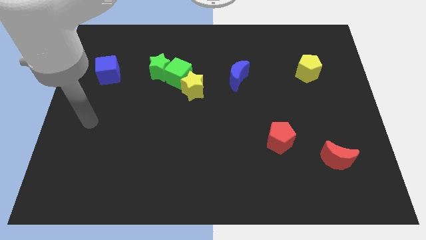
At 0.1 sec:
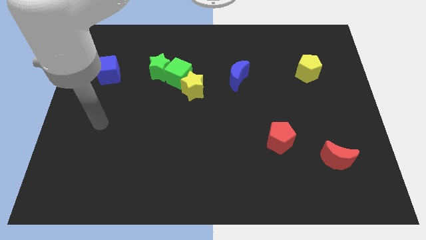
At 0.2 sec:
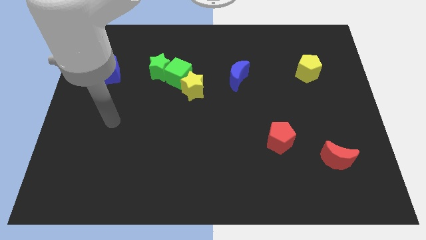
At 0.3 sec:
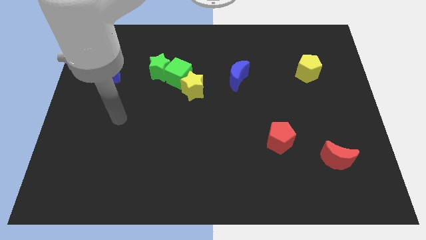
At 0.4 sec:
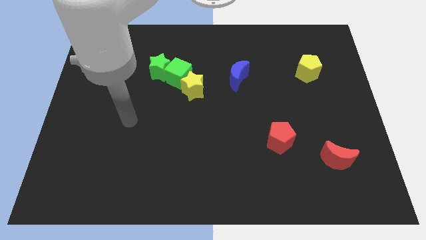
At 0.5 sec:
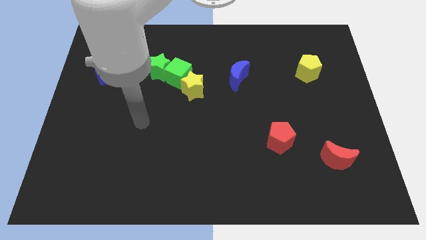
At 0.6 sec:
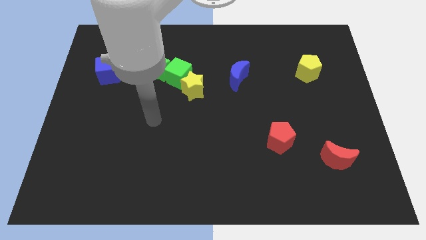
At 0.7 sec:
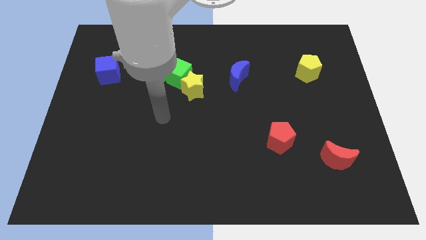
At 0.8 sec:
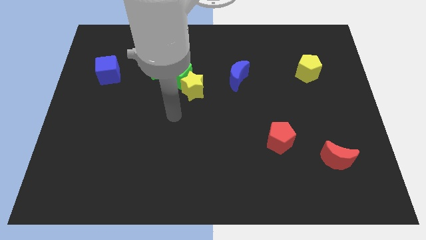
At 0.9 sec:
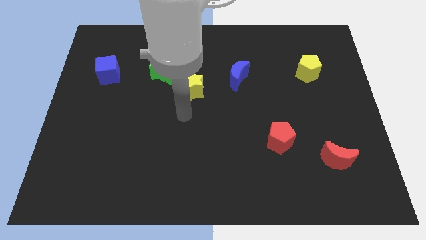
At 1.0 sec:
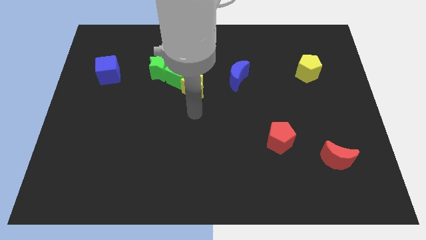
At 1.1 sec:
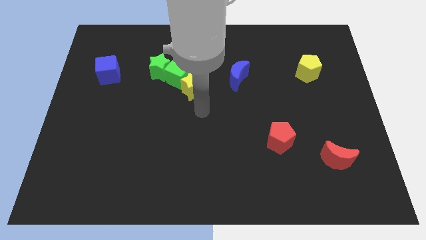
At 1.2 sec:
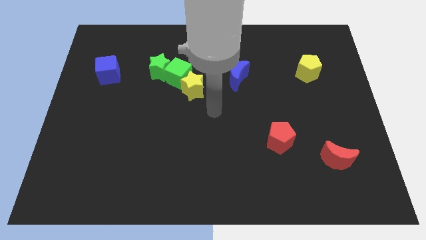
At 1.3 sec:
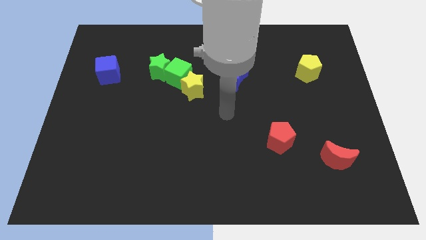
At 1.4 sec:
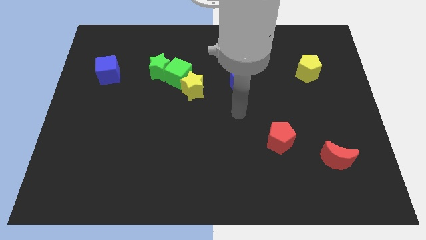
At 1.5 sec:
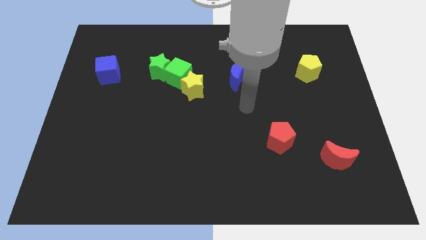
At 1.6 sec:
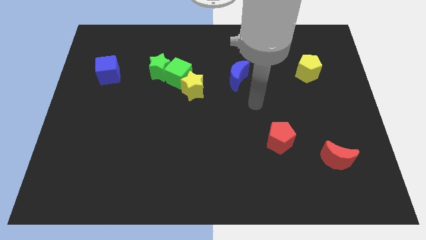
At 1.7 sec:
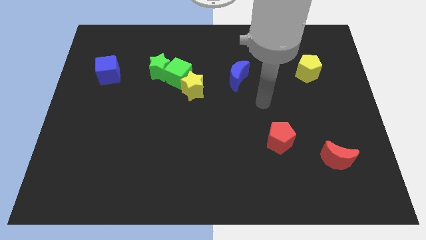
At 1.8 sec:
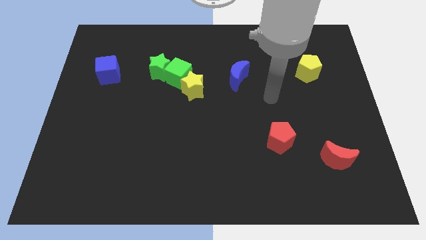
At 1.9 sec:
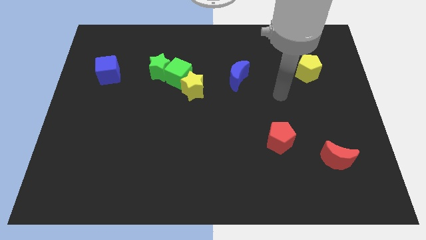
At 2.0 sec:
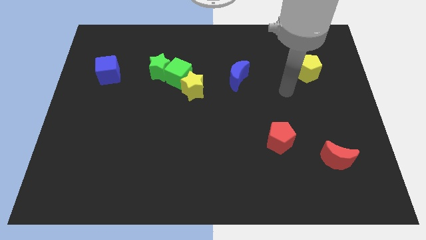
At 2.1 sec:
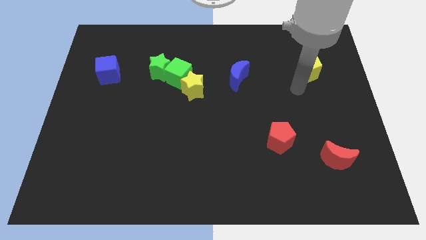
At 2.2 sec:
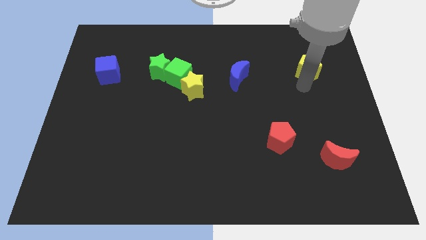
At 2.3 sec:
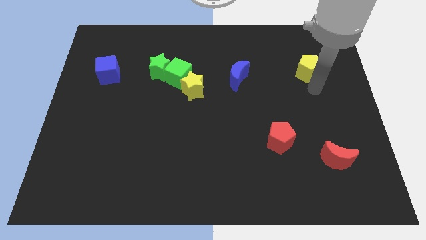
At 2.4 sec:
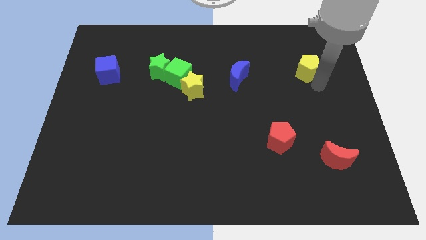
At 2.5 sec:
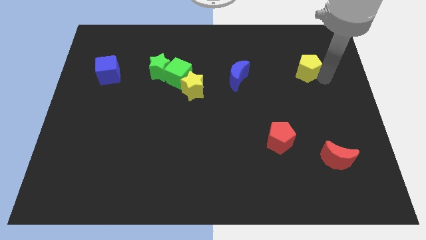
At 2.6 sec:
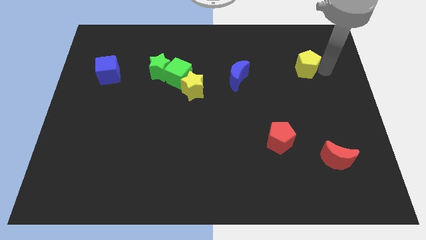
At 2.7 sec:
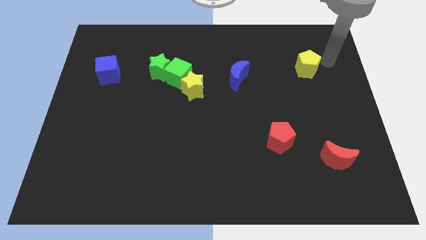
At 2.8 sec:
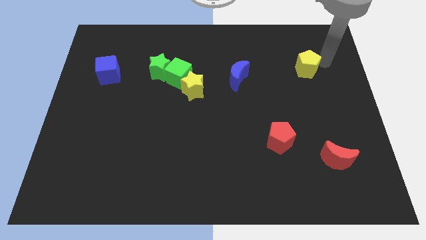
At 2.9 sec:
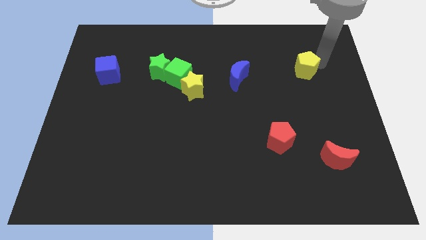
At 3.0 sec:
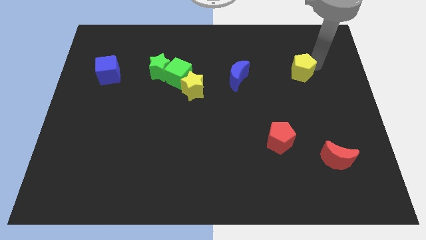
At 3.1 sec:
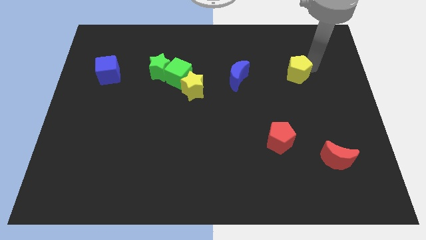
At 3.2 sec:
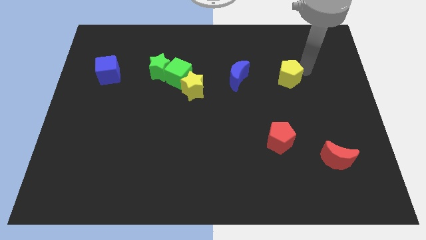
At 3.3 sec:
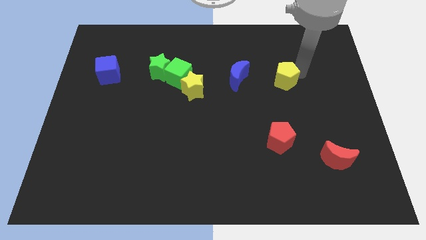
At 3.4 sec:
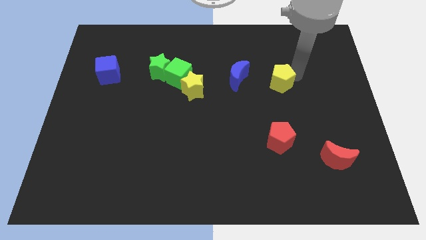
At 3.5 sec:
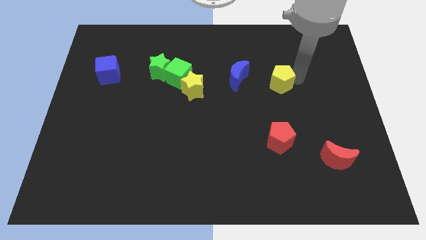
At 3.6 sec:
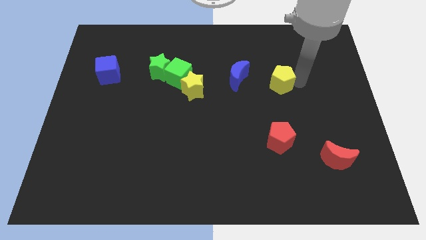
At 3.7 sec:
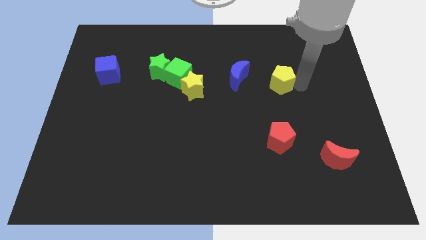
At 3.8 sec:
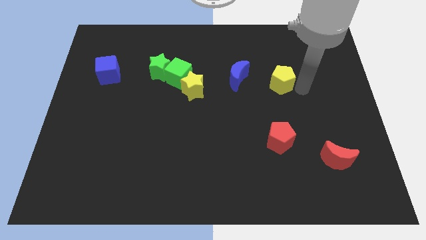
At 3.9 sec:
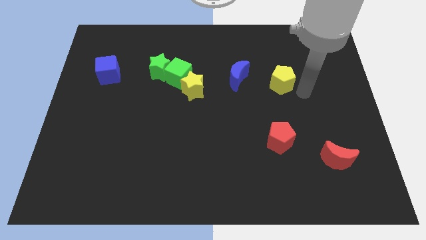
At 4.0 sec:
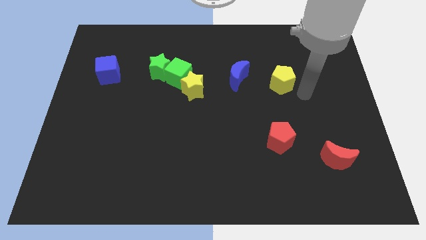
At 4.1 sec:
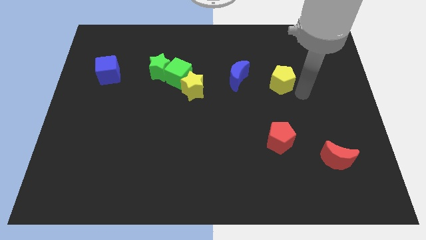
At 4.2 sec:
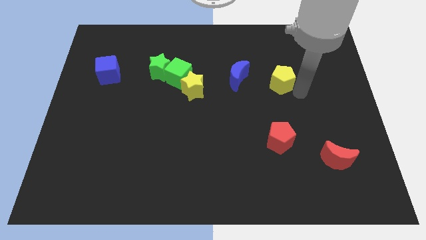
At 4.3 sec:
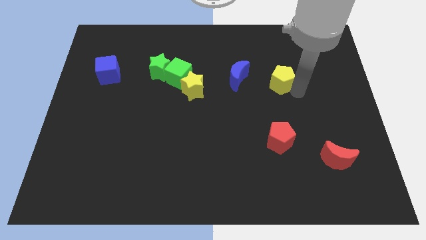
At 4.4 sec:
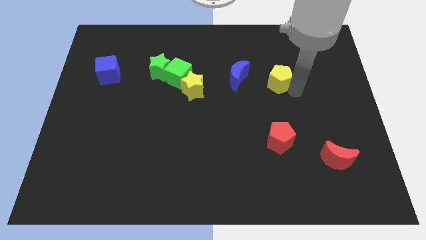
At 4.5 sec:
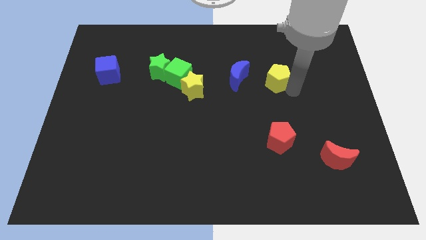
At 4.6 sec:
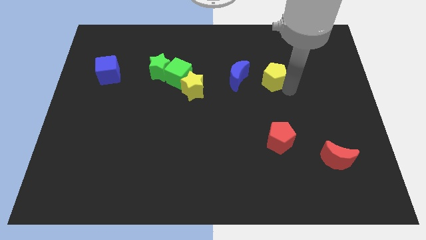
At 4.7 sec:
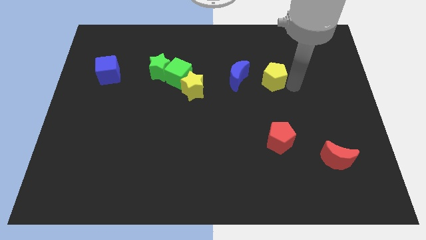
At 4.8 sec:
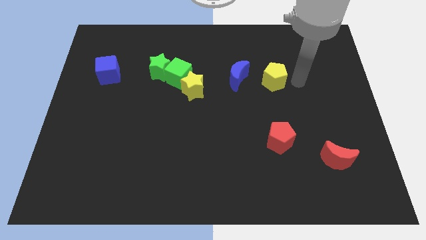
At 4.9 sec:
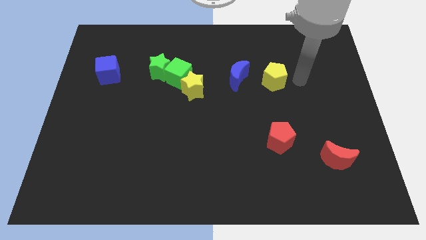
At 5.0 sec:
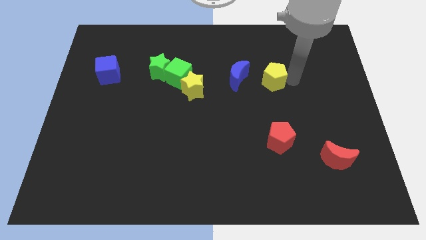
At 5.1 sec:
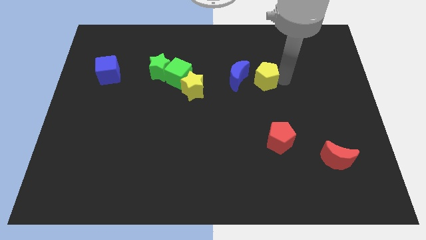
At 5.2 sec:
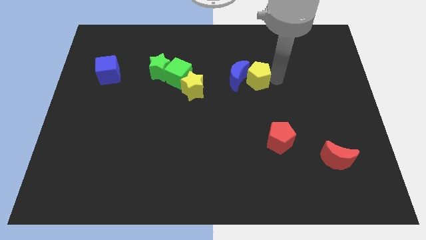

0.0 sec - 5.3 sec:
put the yellow pentagon close to the blue moon
